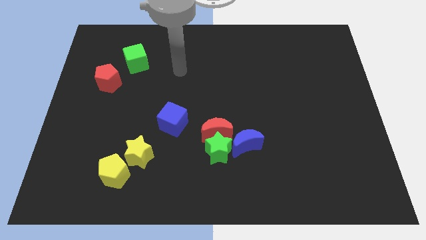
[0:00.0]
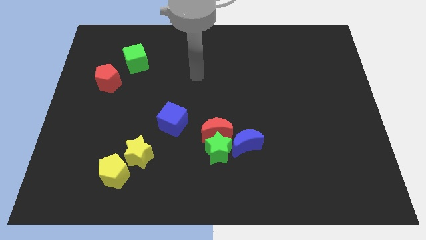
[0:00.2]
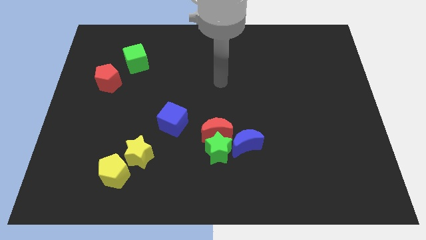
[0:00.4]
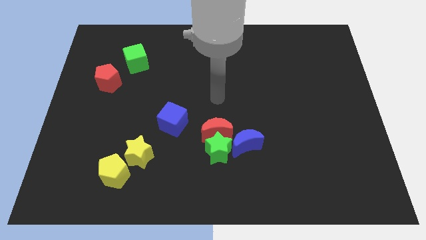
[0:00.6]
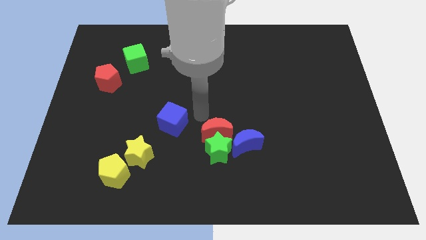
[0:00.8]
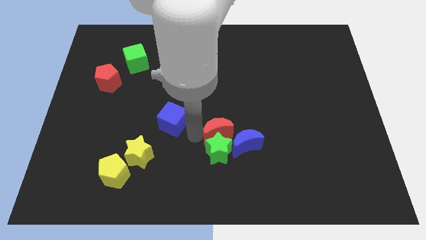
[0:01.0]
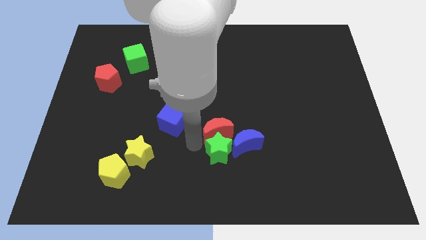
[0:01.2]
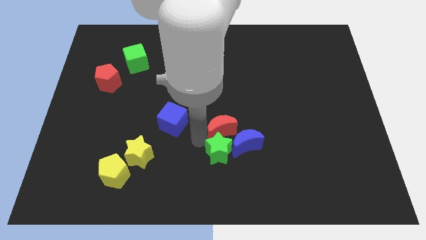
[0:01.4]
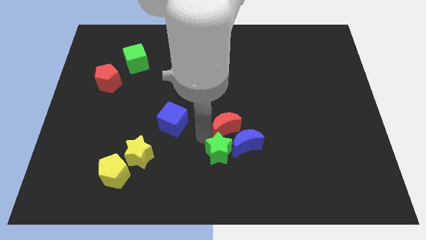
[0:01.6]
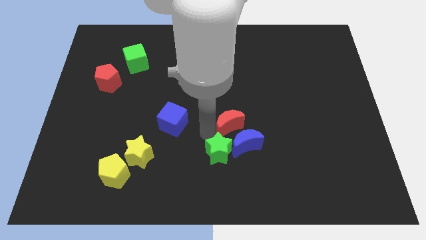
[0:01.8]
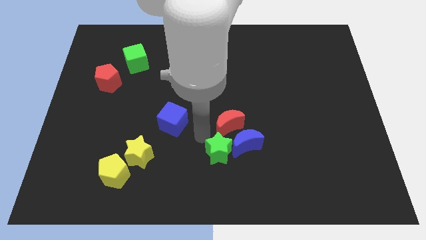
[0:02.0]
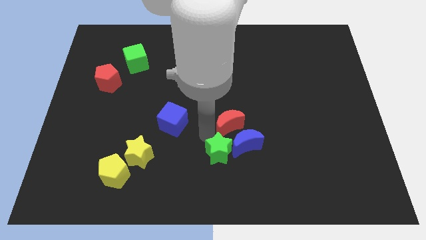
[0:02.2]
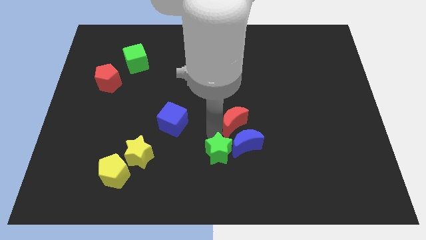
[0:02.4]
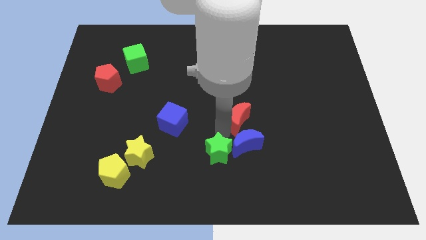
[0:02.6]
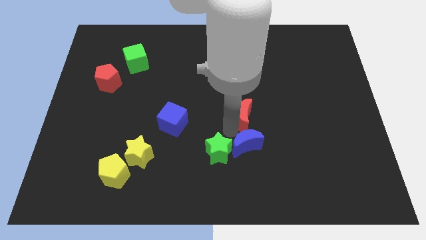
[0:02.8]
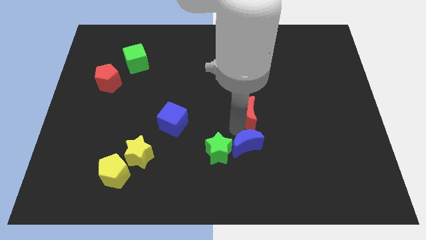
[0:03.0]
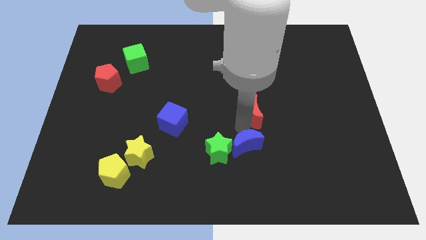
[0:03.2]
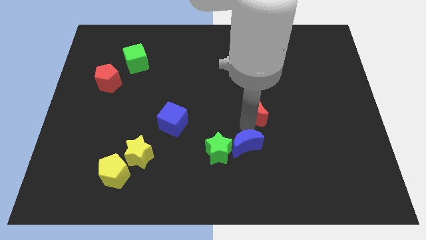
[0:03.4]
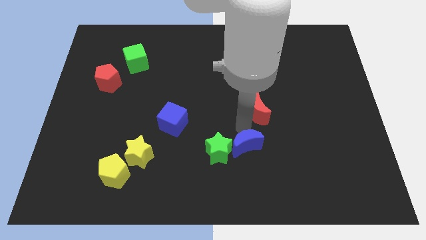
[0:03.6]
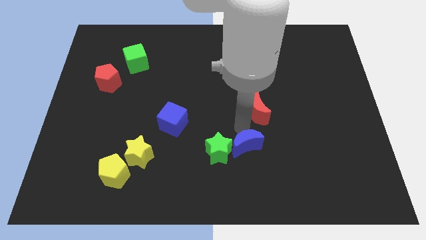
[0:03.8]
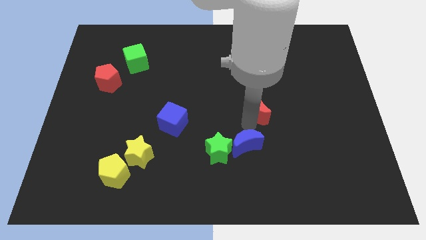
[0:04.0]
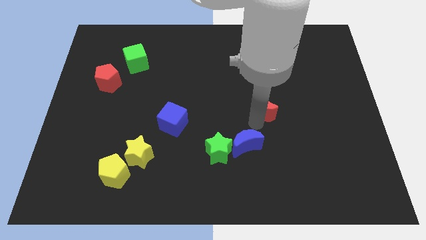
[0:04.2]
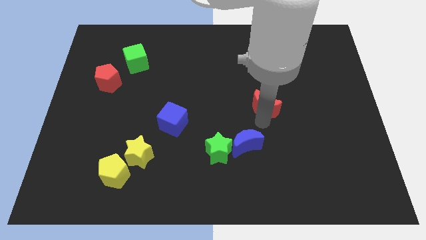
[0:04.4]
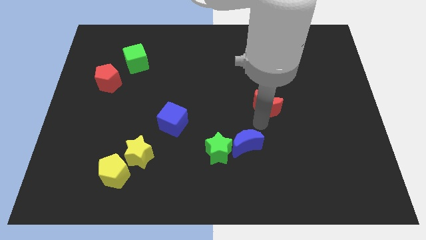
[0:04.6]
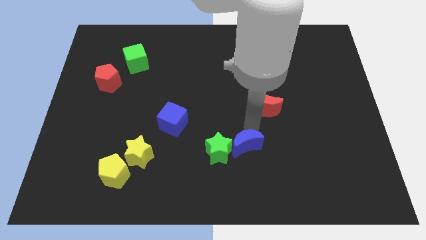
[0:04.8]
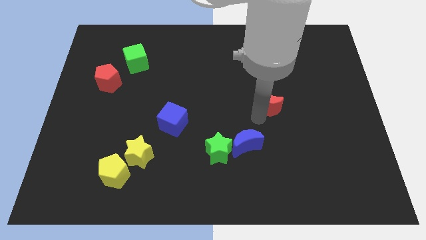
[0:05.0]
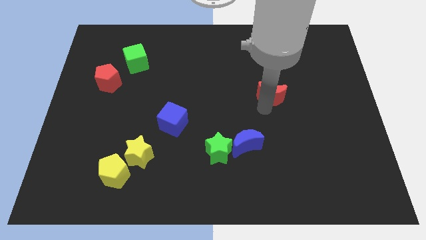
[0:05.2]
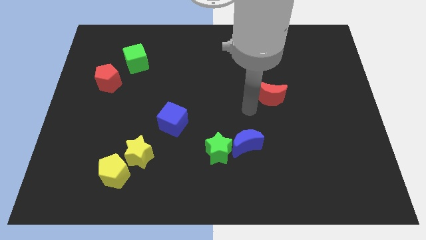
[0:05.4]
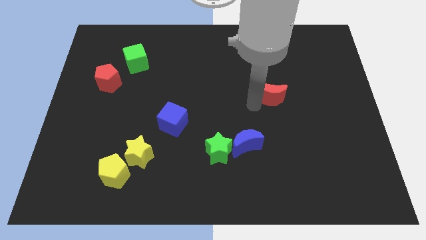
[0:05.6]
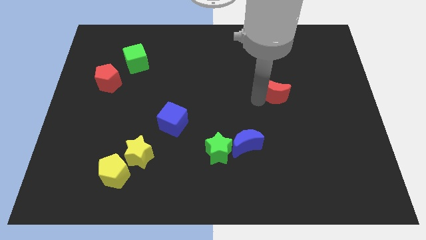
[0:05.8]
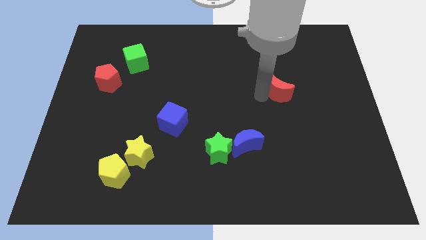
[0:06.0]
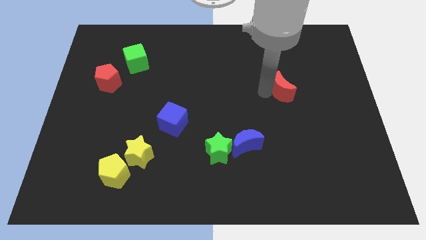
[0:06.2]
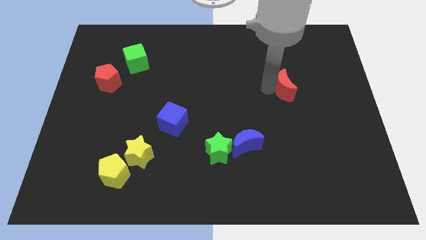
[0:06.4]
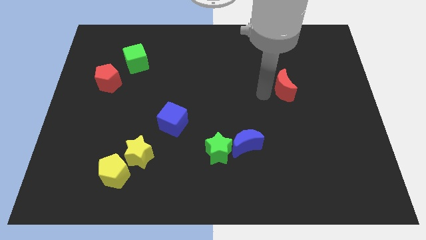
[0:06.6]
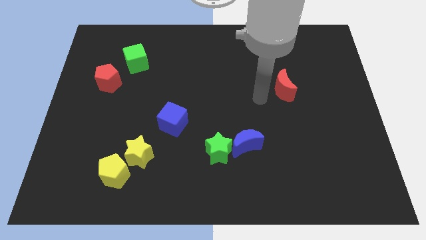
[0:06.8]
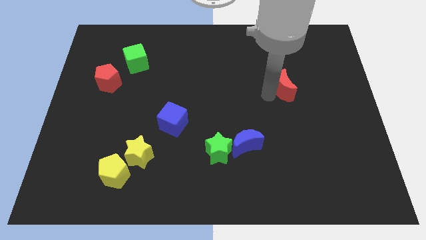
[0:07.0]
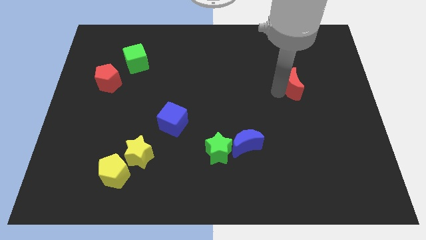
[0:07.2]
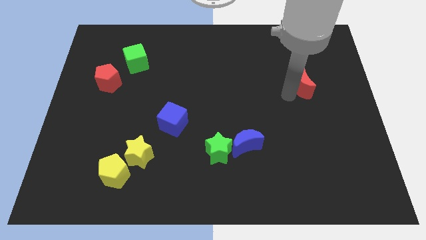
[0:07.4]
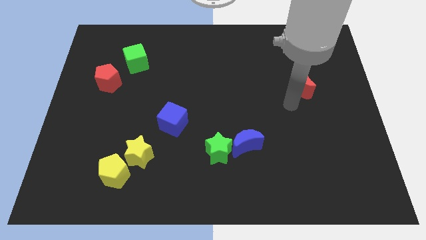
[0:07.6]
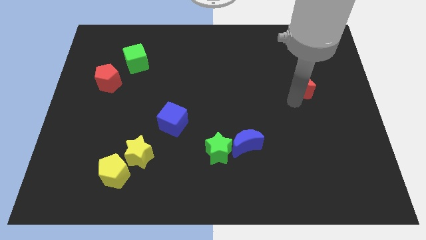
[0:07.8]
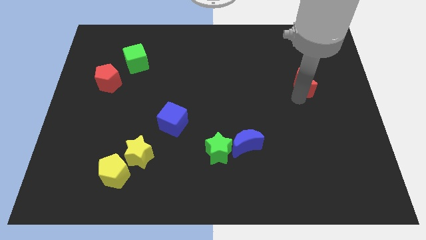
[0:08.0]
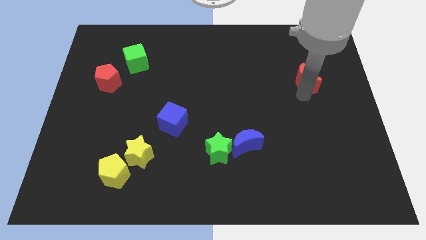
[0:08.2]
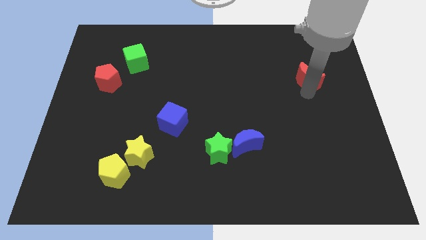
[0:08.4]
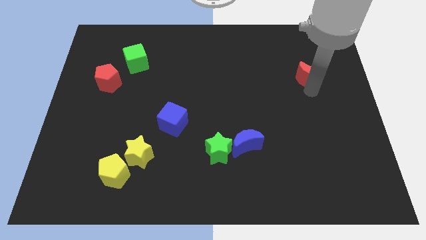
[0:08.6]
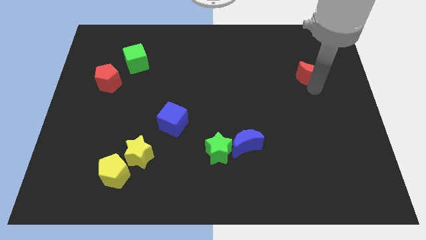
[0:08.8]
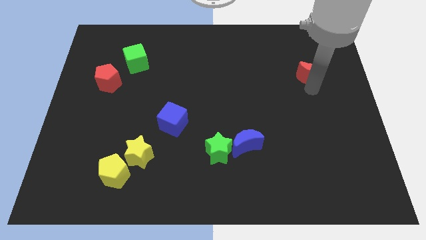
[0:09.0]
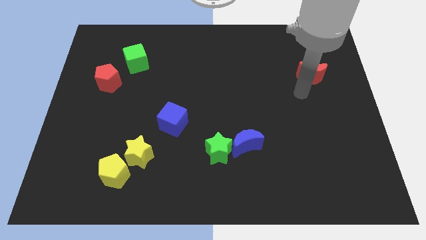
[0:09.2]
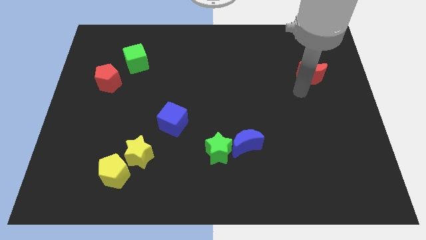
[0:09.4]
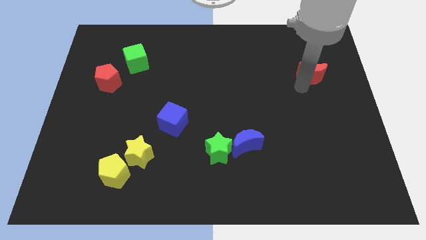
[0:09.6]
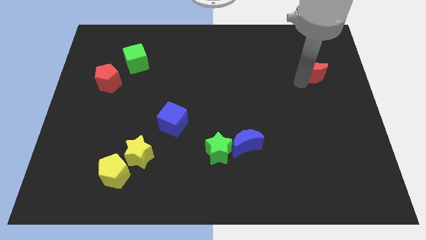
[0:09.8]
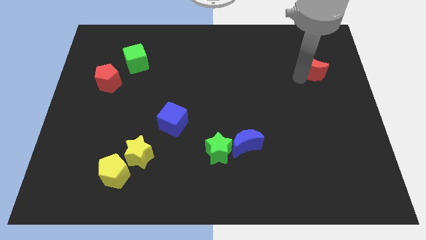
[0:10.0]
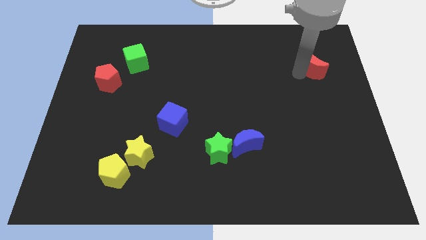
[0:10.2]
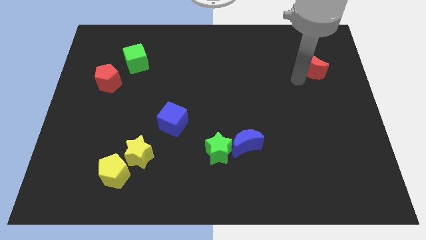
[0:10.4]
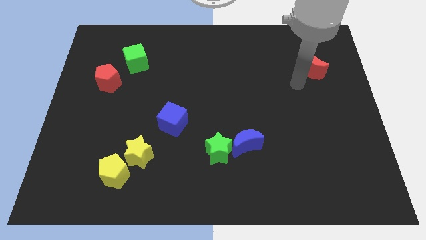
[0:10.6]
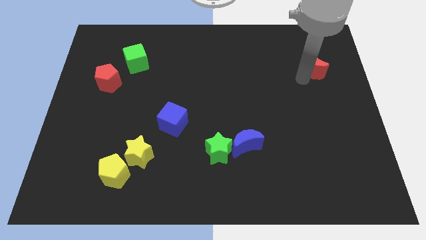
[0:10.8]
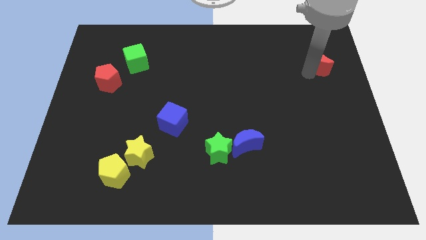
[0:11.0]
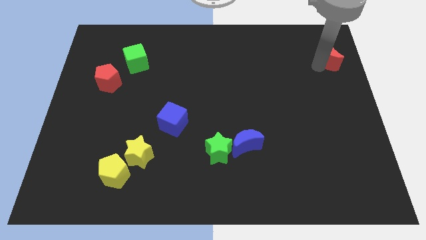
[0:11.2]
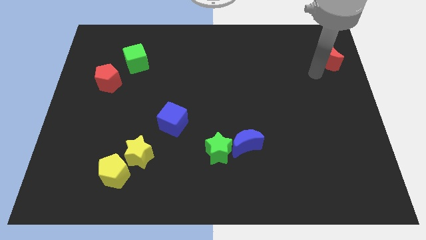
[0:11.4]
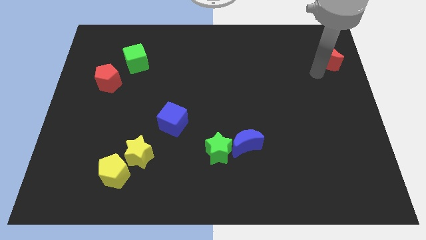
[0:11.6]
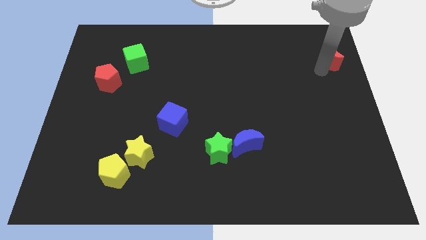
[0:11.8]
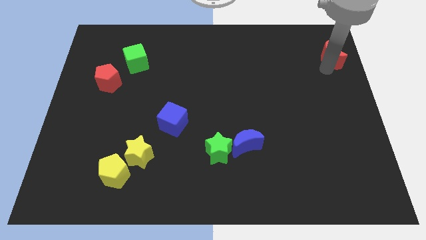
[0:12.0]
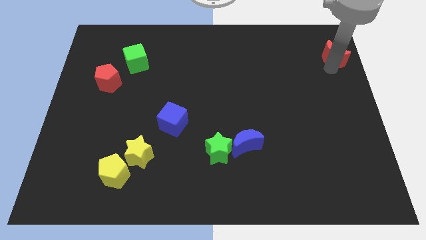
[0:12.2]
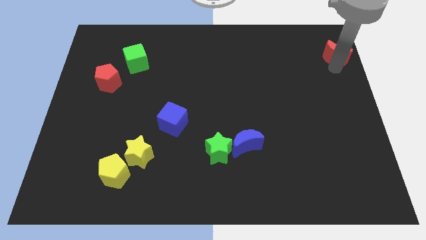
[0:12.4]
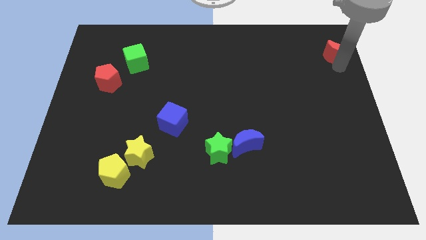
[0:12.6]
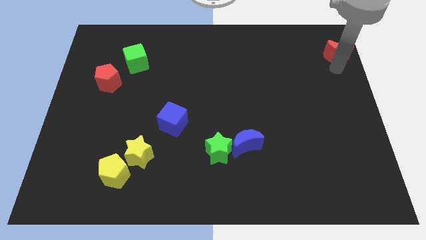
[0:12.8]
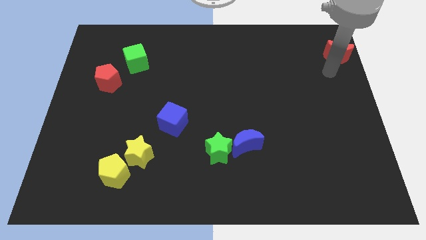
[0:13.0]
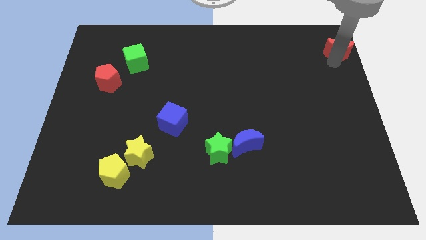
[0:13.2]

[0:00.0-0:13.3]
put the red moon to the upper right corner

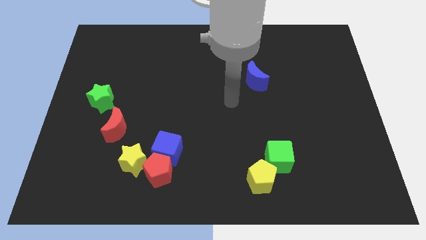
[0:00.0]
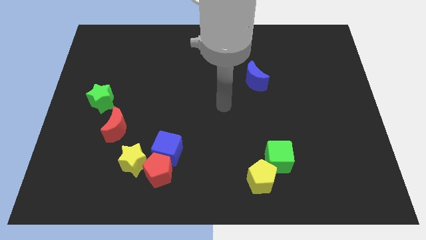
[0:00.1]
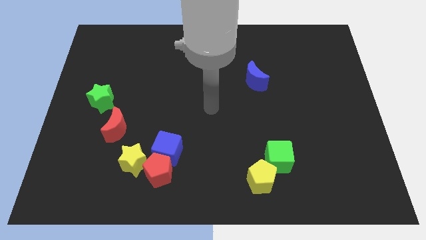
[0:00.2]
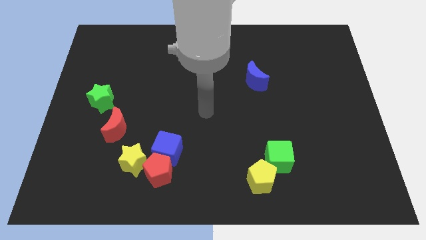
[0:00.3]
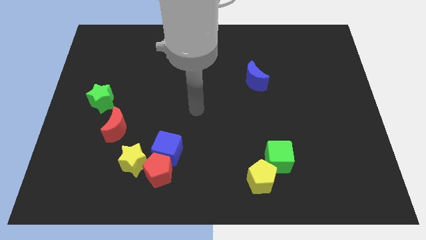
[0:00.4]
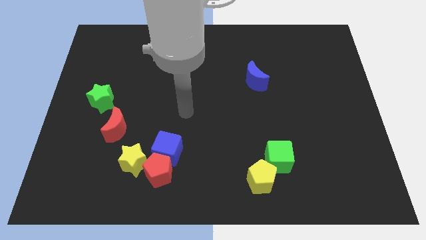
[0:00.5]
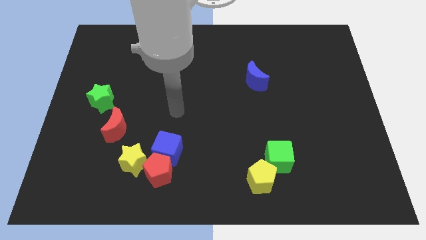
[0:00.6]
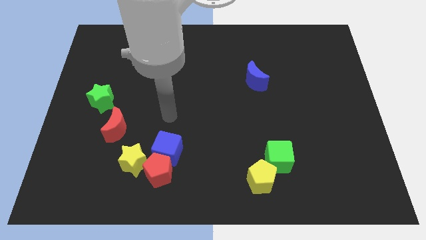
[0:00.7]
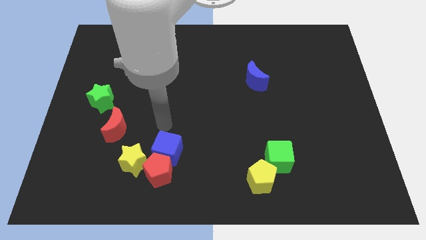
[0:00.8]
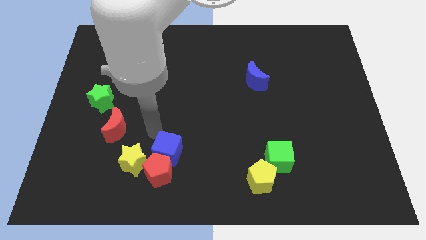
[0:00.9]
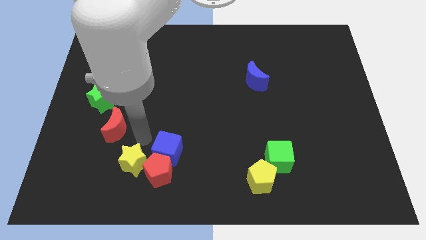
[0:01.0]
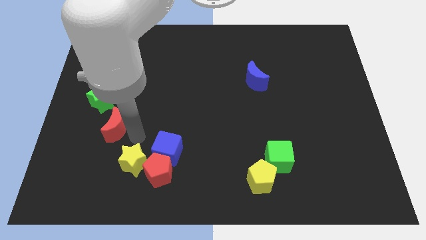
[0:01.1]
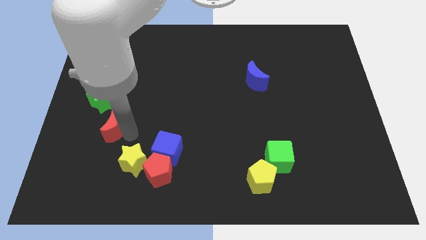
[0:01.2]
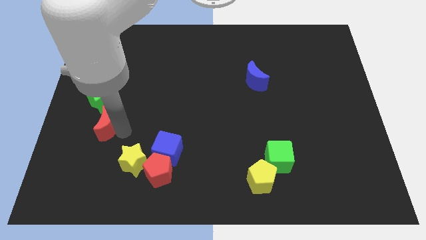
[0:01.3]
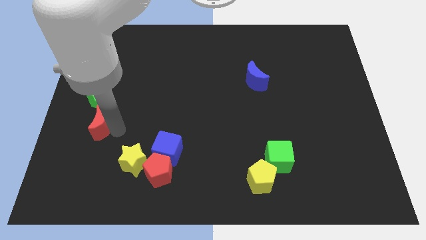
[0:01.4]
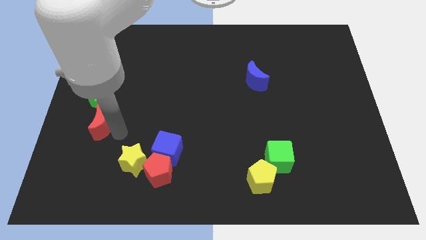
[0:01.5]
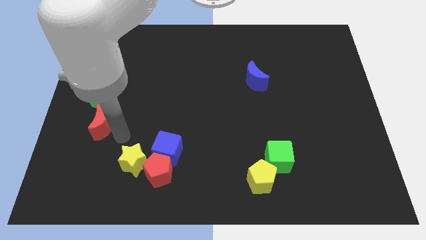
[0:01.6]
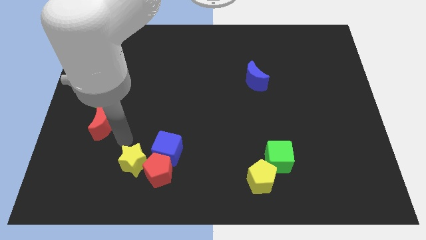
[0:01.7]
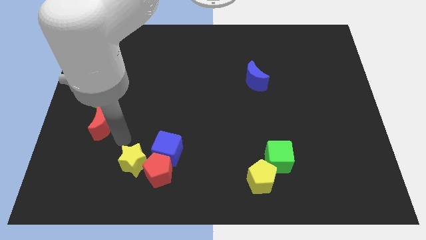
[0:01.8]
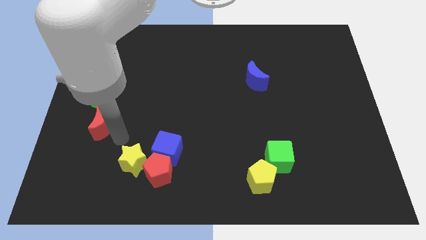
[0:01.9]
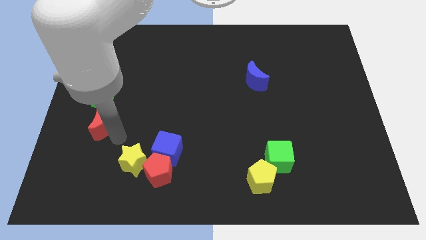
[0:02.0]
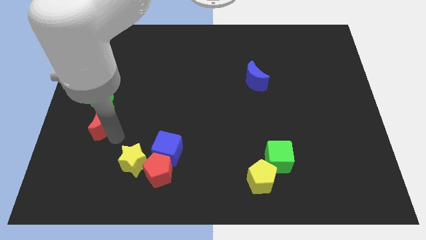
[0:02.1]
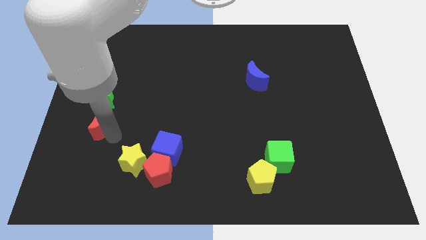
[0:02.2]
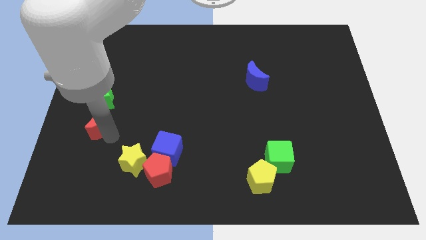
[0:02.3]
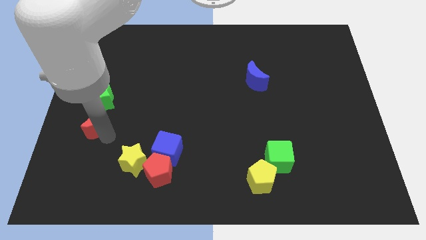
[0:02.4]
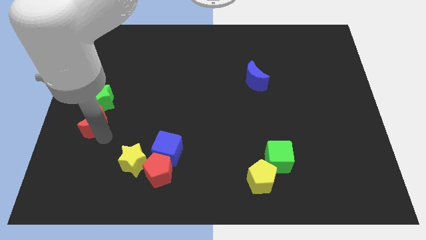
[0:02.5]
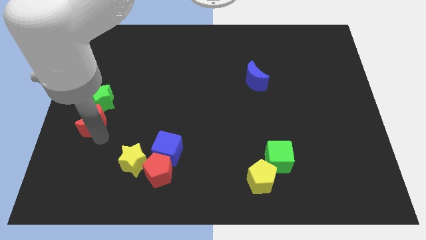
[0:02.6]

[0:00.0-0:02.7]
push the red moon to the left side of the board
